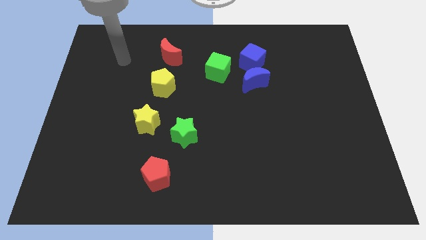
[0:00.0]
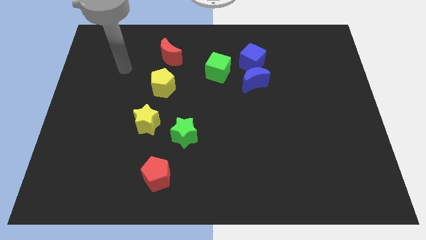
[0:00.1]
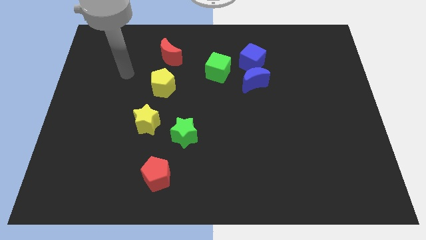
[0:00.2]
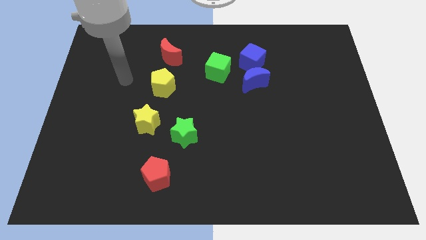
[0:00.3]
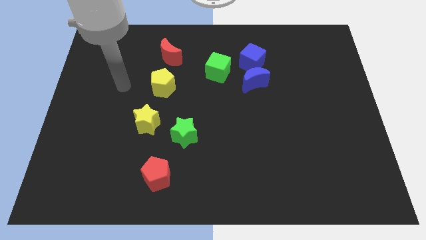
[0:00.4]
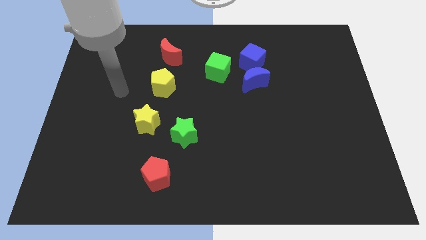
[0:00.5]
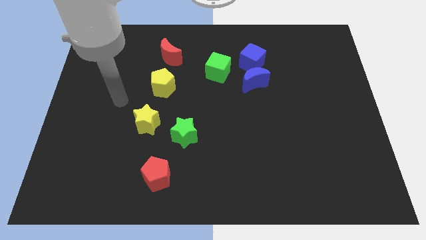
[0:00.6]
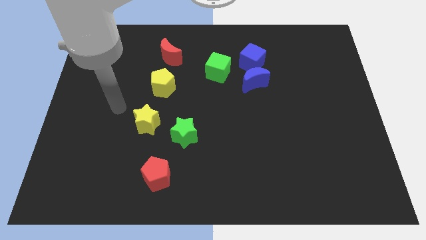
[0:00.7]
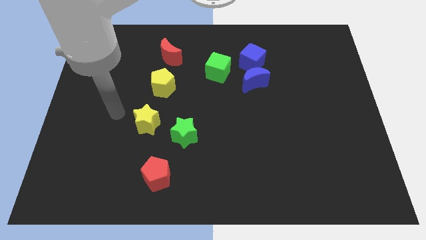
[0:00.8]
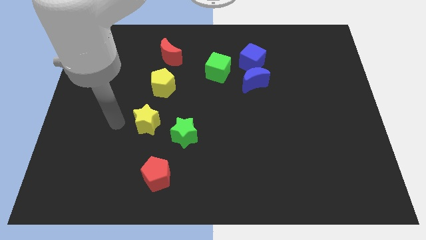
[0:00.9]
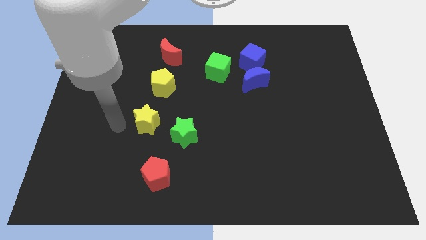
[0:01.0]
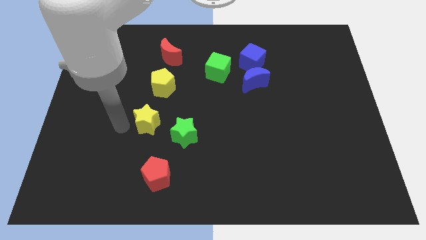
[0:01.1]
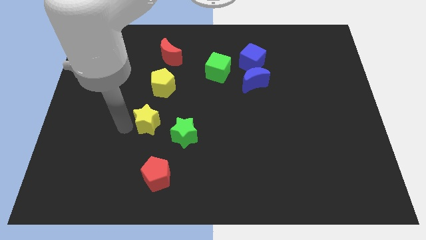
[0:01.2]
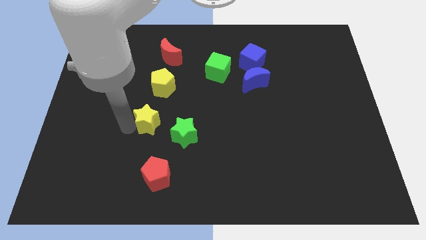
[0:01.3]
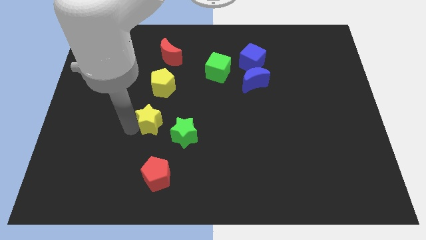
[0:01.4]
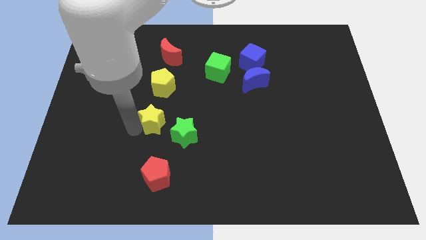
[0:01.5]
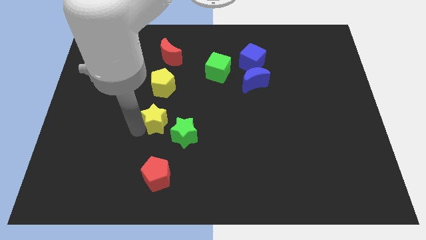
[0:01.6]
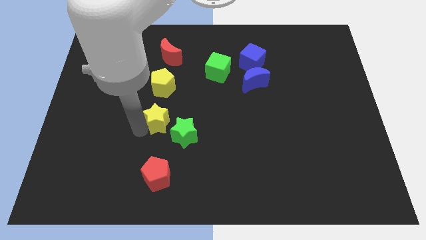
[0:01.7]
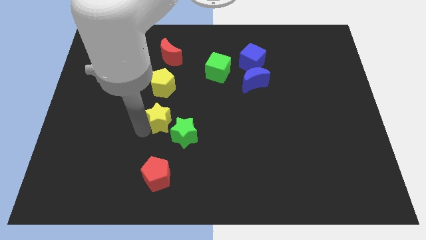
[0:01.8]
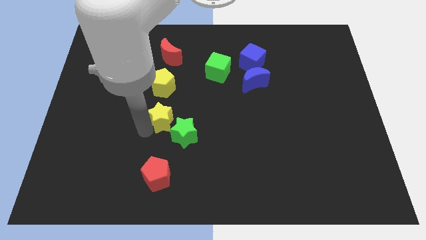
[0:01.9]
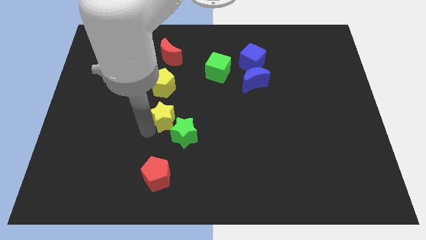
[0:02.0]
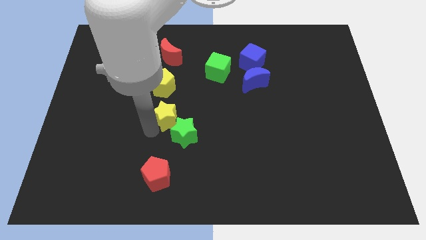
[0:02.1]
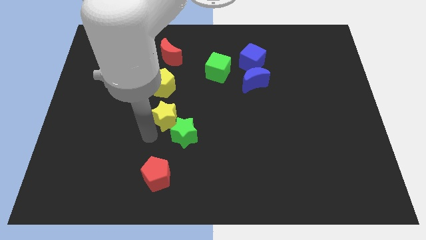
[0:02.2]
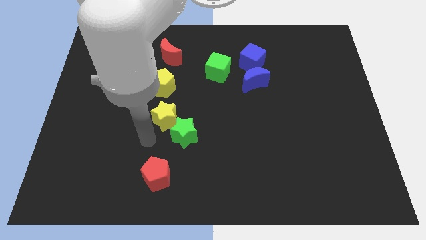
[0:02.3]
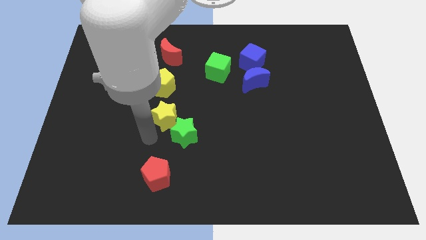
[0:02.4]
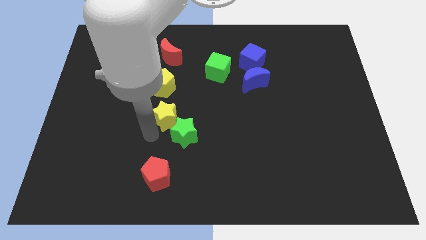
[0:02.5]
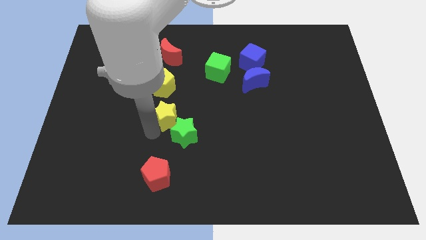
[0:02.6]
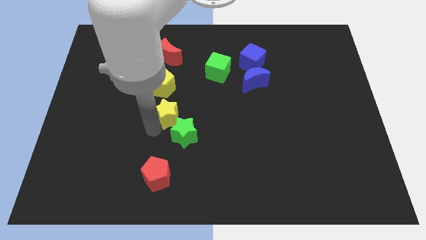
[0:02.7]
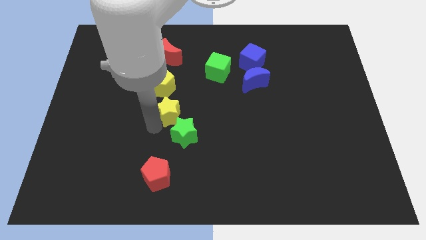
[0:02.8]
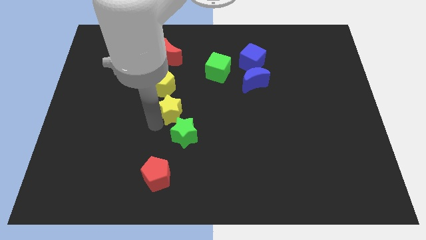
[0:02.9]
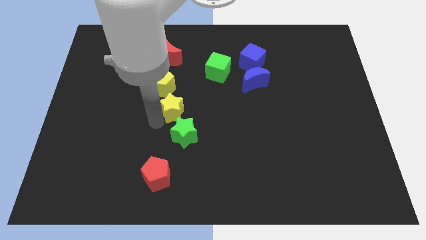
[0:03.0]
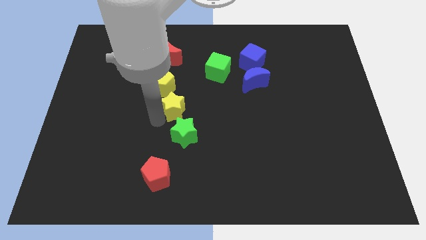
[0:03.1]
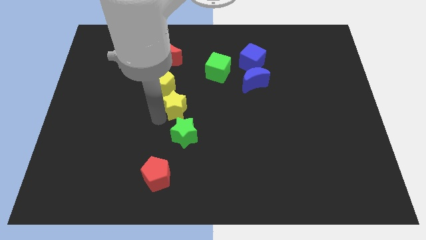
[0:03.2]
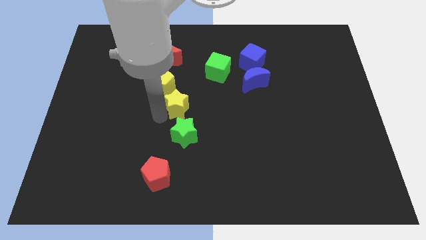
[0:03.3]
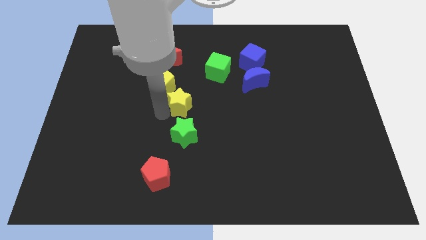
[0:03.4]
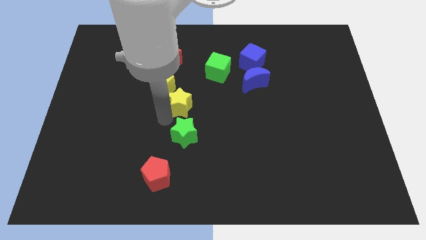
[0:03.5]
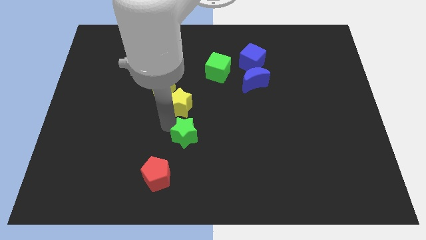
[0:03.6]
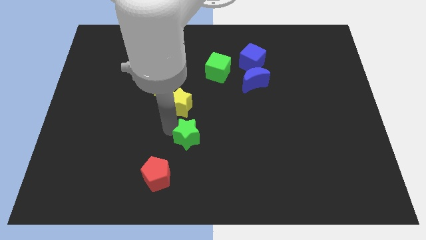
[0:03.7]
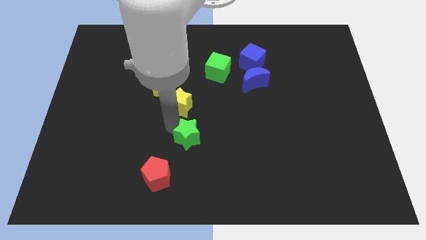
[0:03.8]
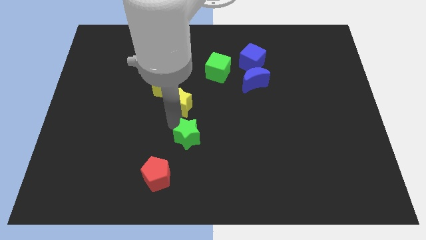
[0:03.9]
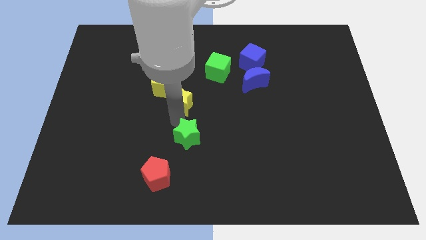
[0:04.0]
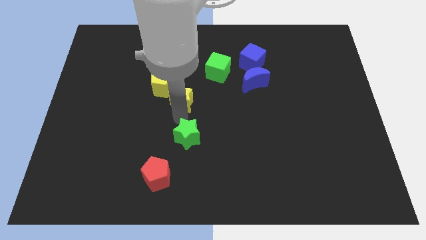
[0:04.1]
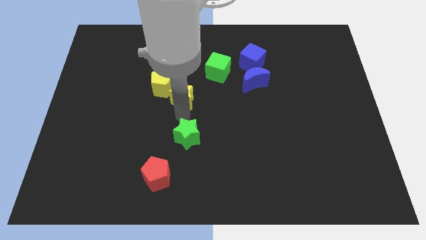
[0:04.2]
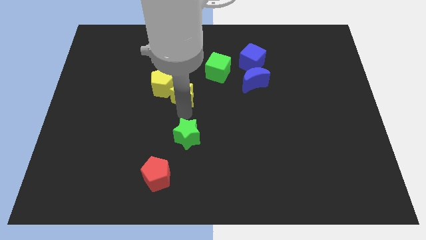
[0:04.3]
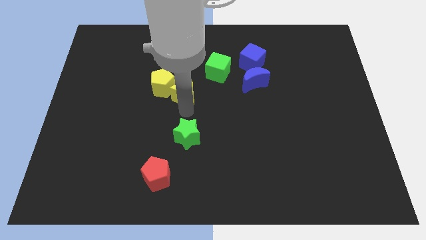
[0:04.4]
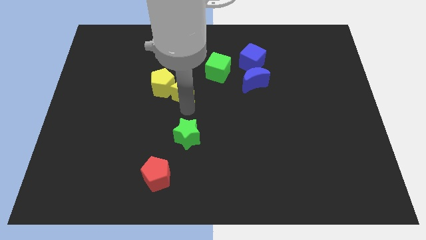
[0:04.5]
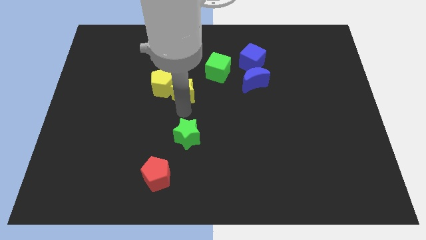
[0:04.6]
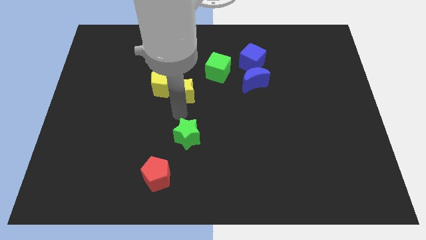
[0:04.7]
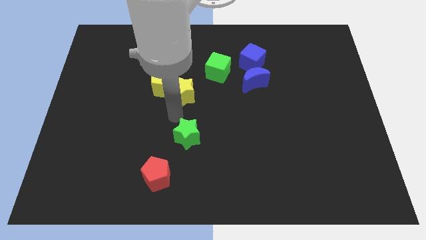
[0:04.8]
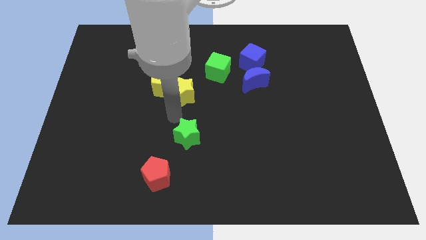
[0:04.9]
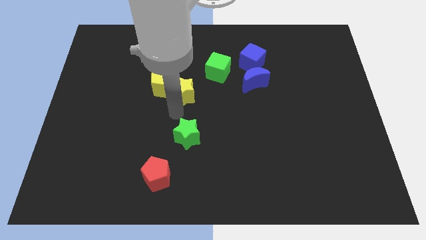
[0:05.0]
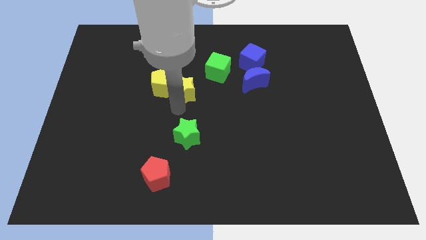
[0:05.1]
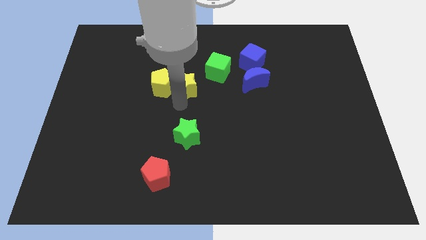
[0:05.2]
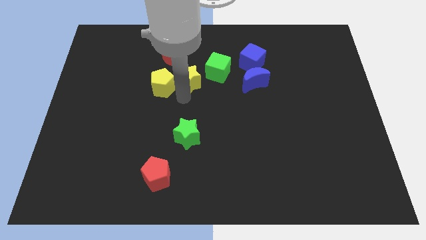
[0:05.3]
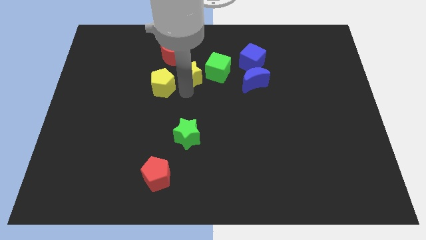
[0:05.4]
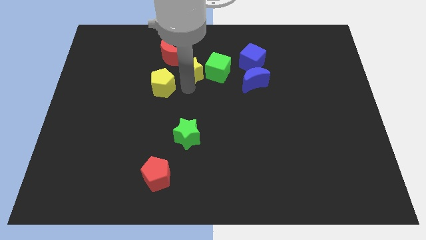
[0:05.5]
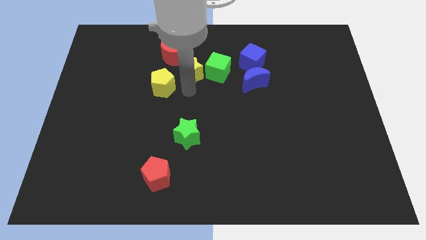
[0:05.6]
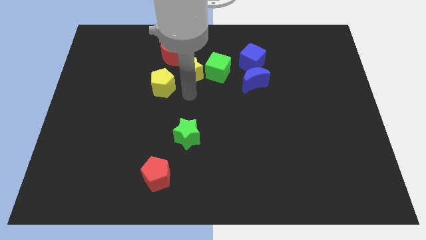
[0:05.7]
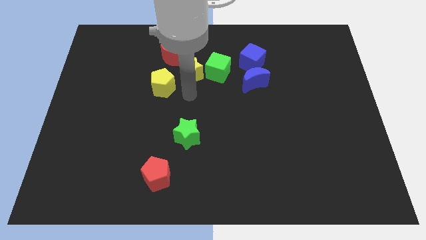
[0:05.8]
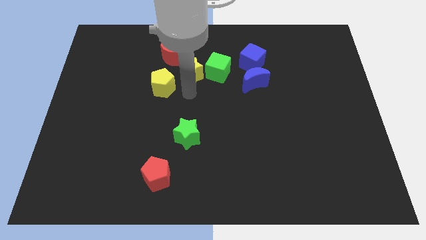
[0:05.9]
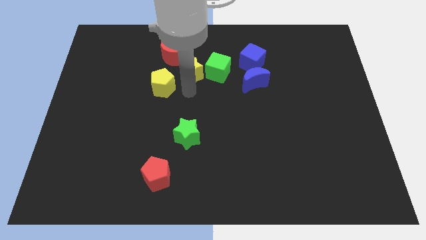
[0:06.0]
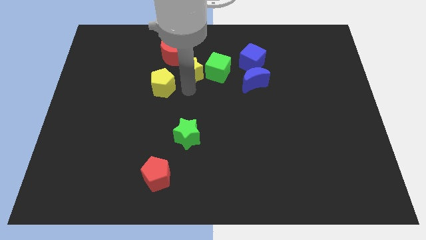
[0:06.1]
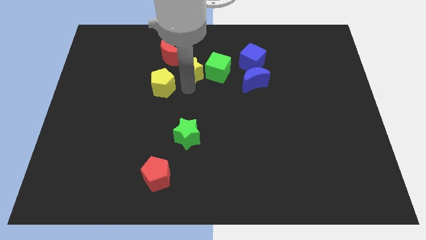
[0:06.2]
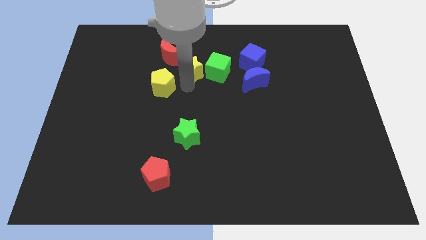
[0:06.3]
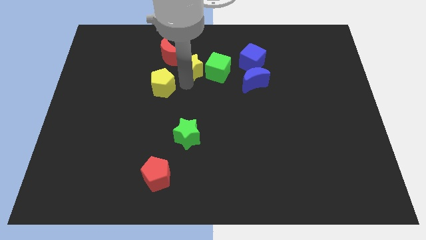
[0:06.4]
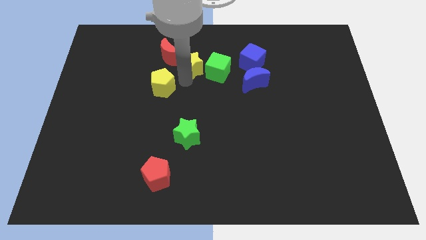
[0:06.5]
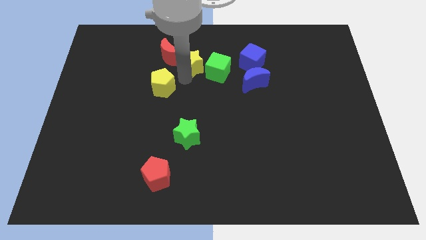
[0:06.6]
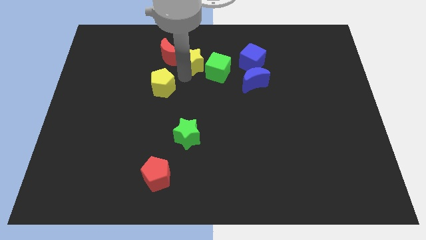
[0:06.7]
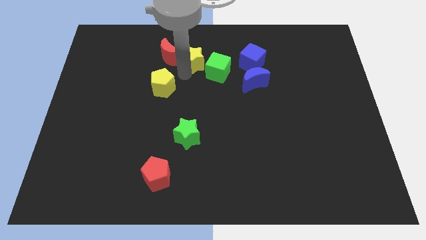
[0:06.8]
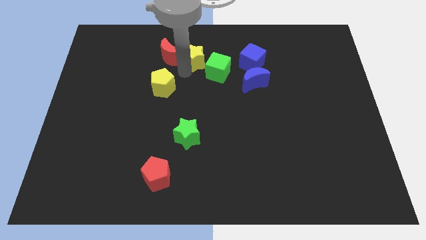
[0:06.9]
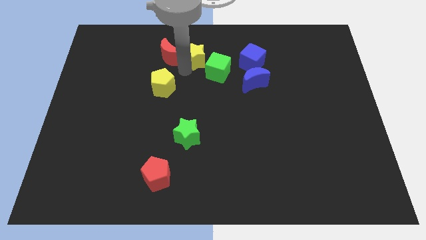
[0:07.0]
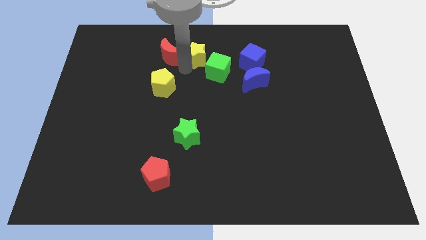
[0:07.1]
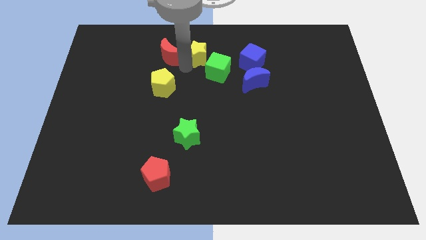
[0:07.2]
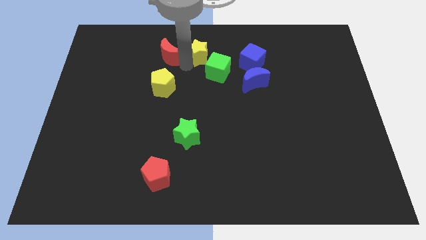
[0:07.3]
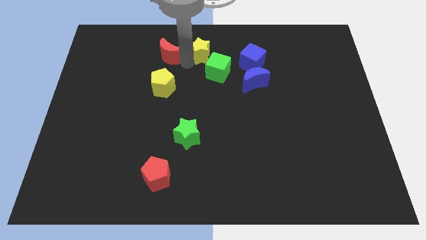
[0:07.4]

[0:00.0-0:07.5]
move the yellow star to the towards your base
